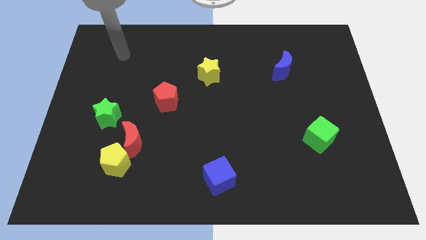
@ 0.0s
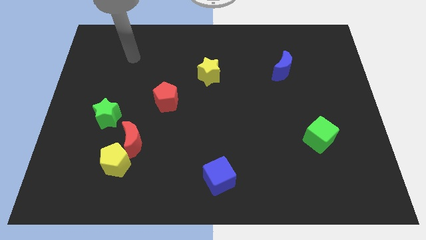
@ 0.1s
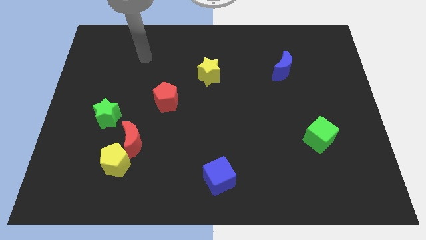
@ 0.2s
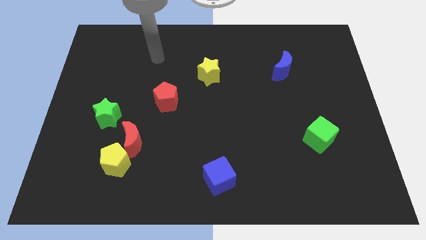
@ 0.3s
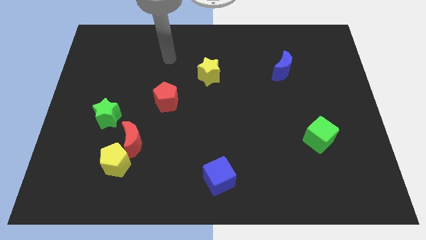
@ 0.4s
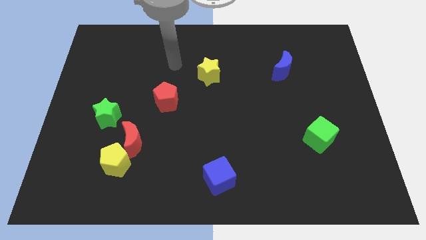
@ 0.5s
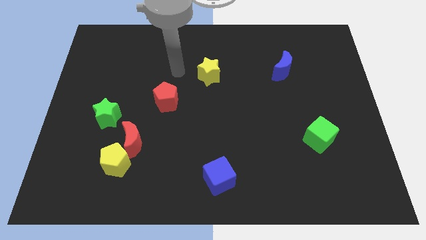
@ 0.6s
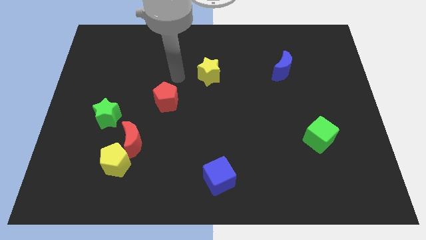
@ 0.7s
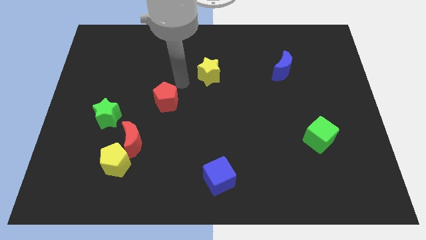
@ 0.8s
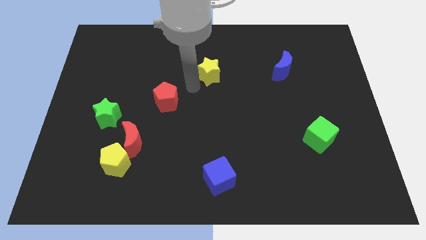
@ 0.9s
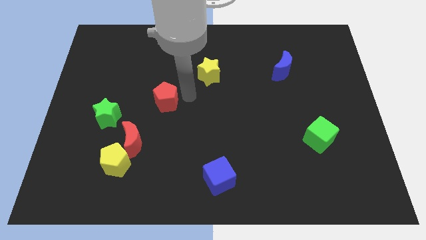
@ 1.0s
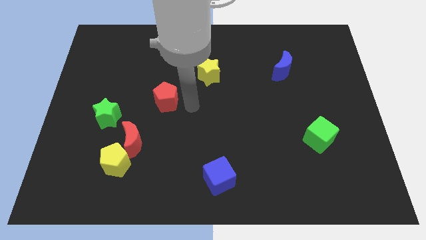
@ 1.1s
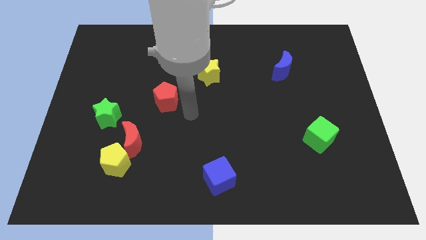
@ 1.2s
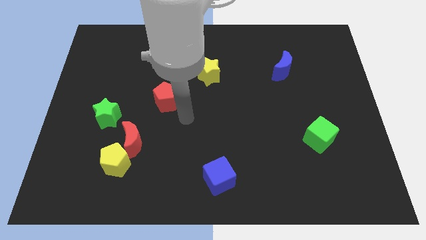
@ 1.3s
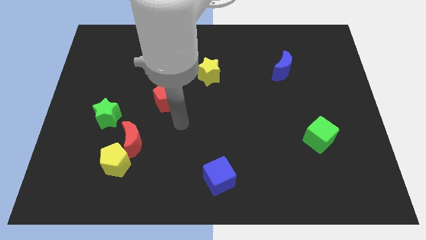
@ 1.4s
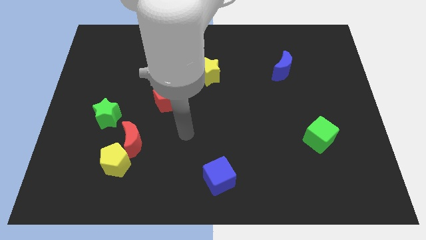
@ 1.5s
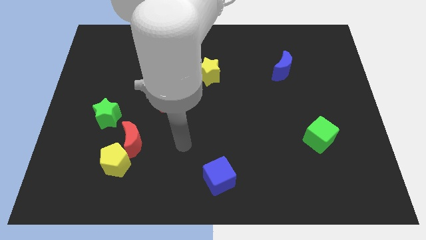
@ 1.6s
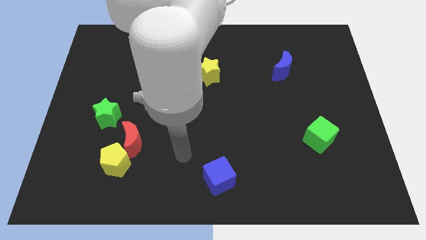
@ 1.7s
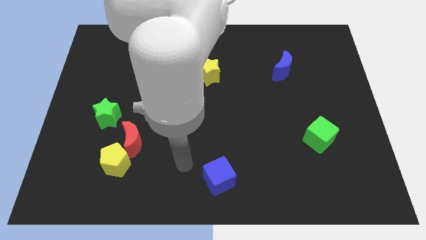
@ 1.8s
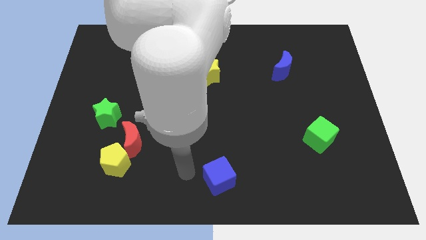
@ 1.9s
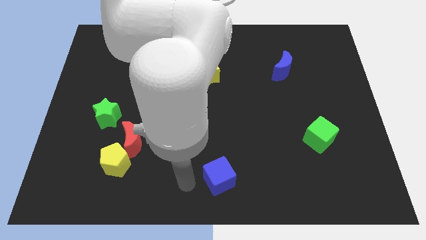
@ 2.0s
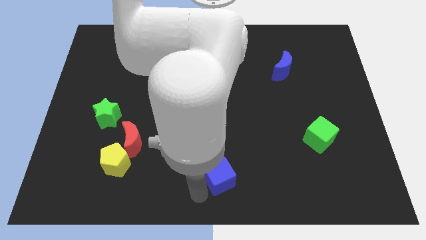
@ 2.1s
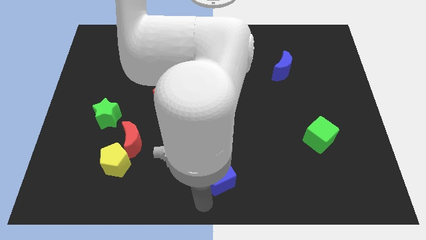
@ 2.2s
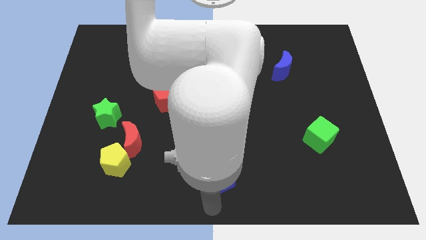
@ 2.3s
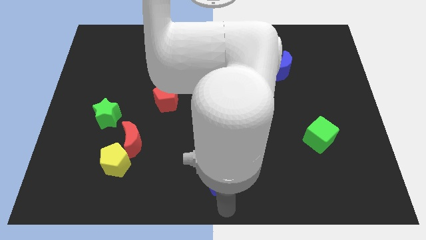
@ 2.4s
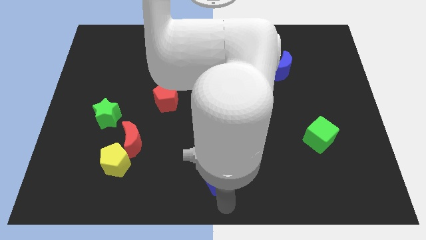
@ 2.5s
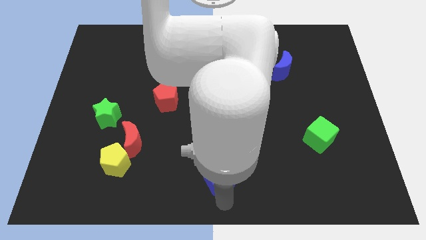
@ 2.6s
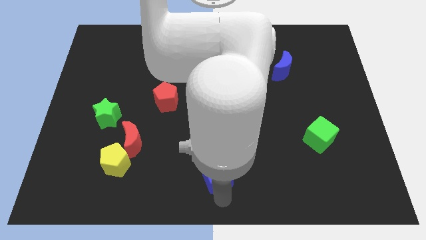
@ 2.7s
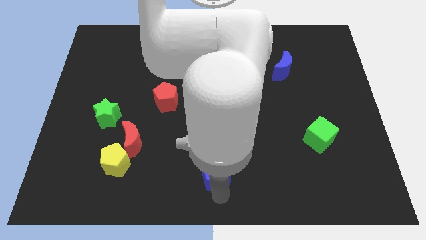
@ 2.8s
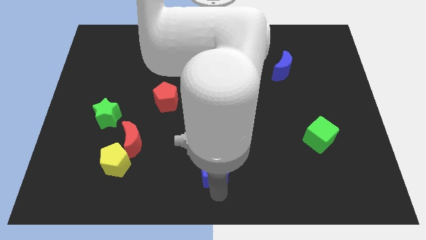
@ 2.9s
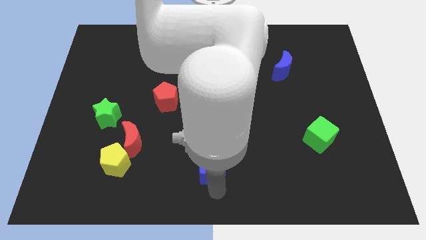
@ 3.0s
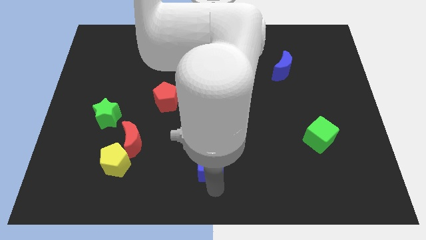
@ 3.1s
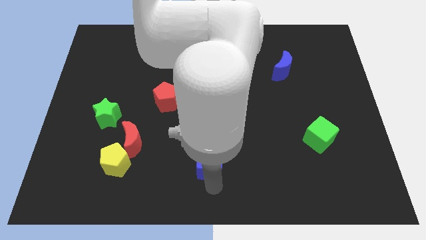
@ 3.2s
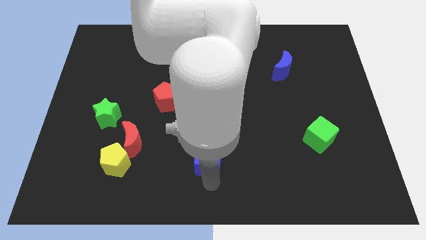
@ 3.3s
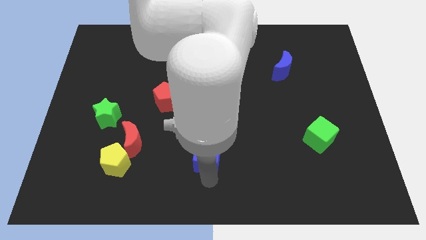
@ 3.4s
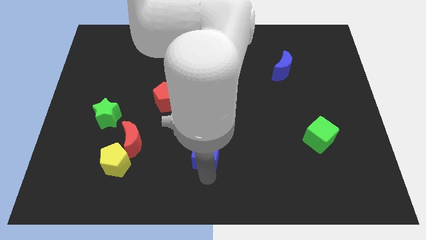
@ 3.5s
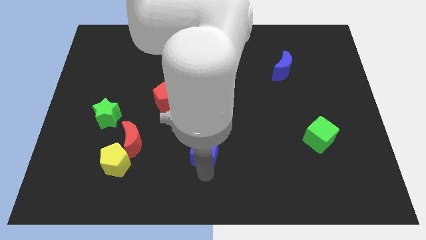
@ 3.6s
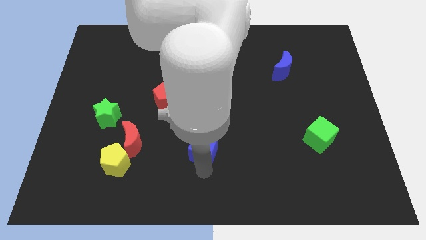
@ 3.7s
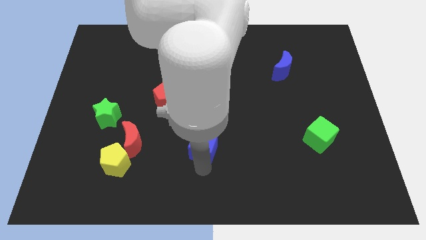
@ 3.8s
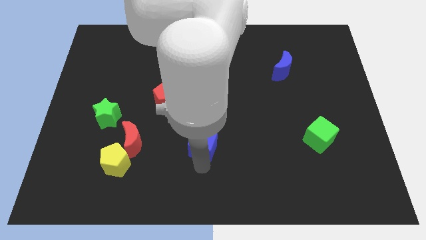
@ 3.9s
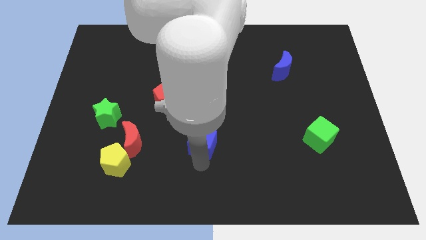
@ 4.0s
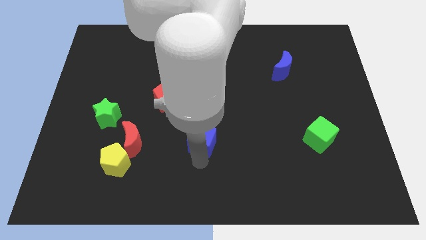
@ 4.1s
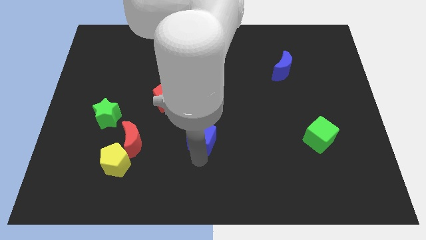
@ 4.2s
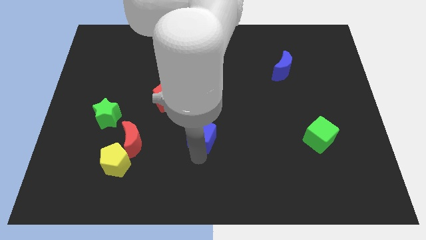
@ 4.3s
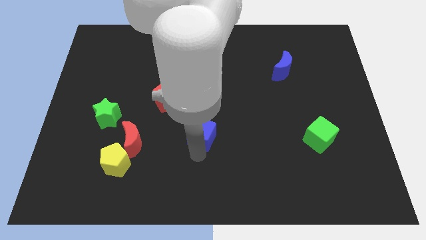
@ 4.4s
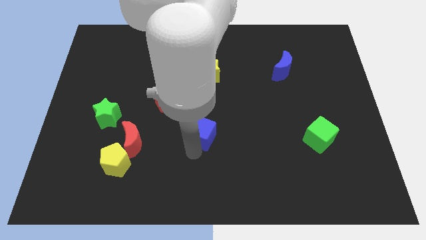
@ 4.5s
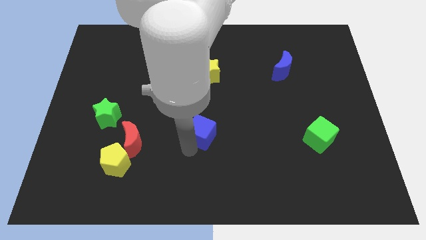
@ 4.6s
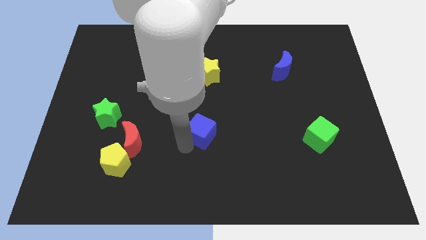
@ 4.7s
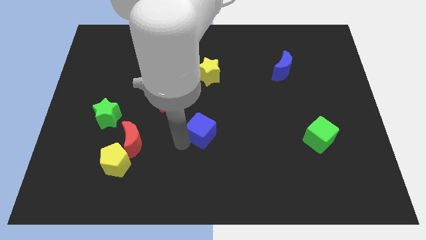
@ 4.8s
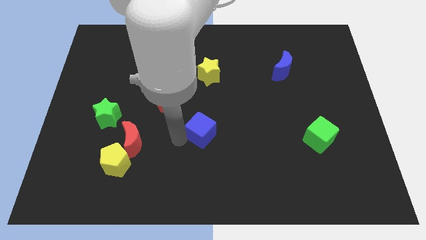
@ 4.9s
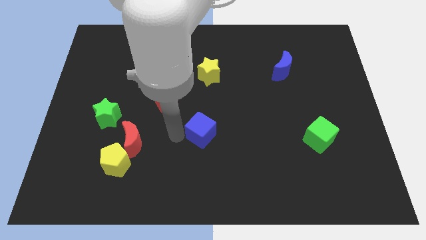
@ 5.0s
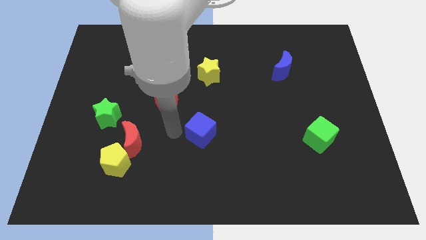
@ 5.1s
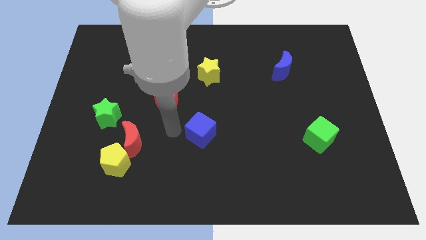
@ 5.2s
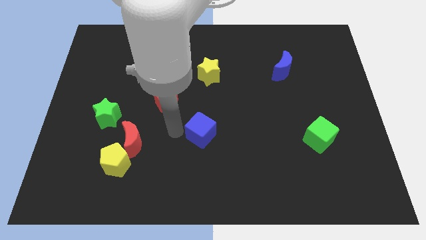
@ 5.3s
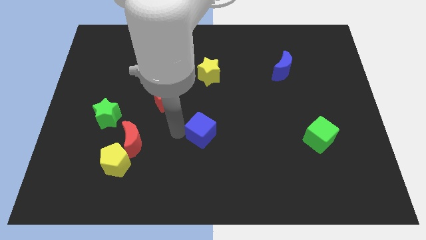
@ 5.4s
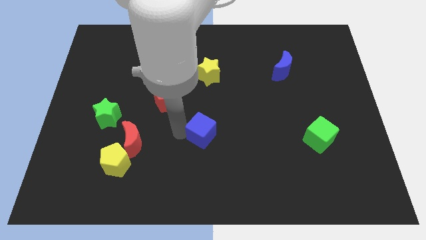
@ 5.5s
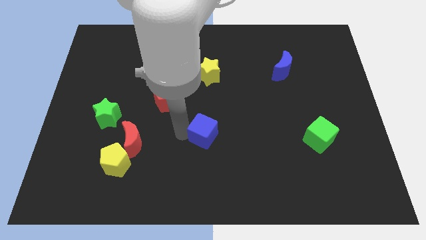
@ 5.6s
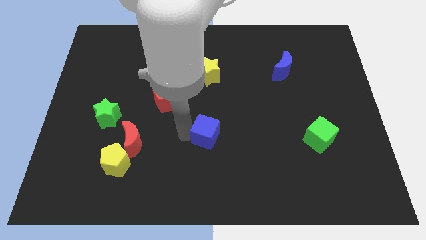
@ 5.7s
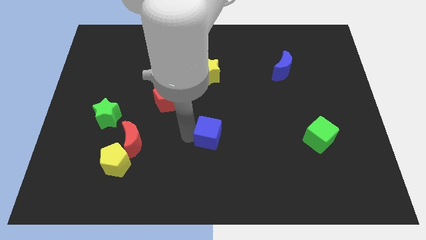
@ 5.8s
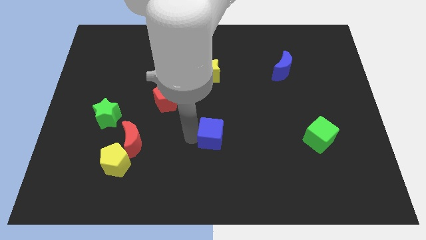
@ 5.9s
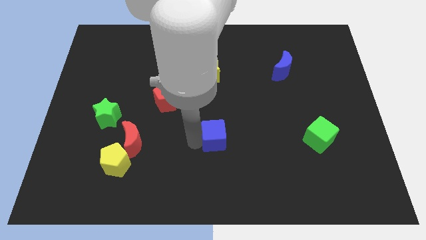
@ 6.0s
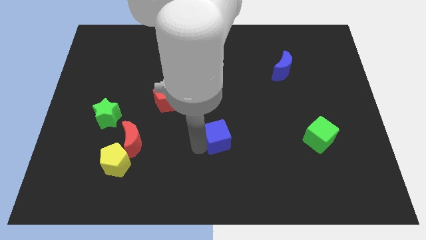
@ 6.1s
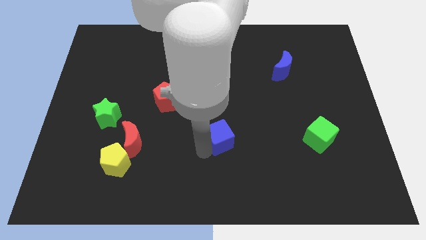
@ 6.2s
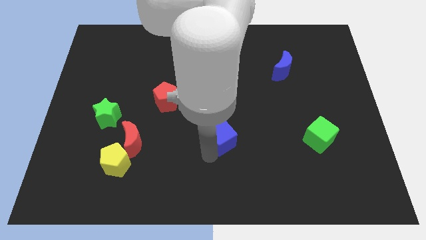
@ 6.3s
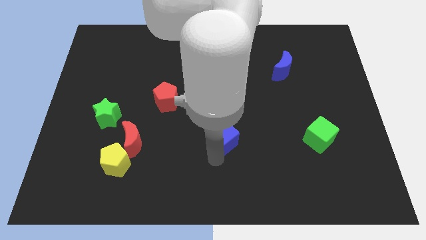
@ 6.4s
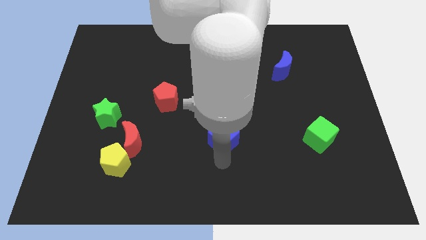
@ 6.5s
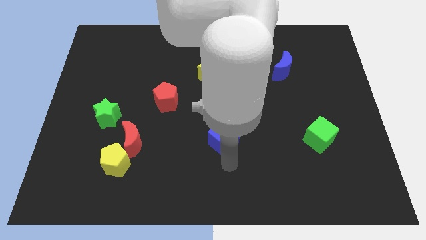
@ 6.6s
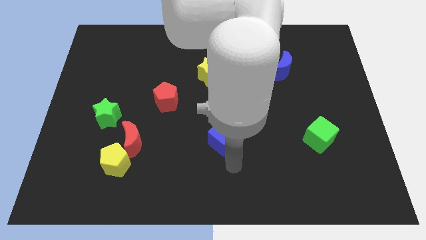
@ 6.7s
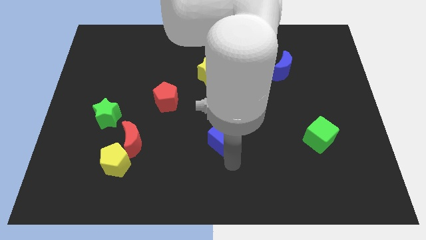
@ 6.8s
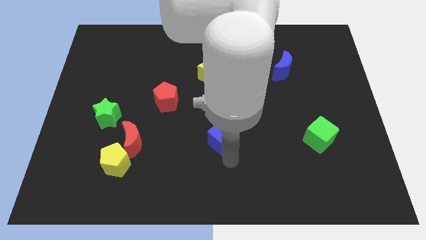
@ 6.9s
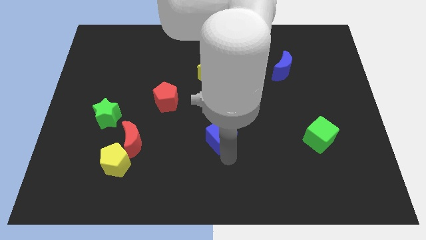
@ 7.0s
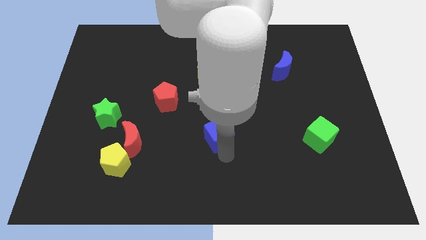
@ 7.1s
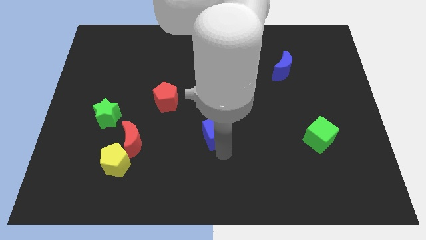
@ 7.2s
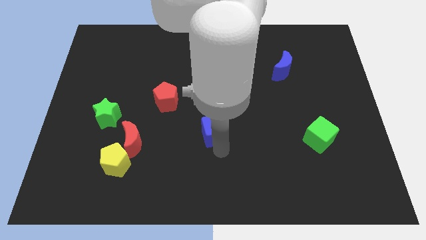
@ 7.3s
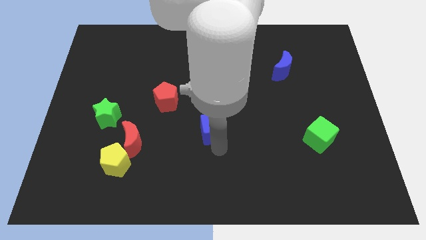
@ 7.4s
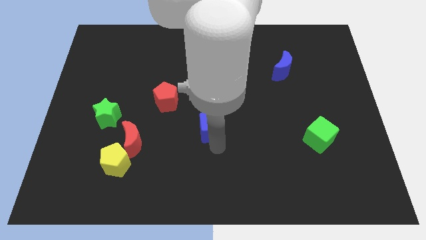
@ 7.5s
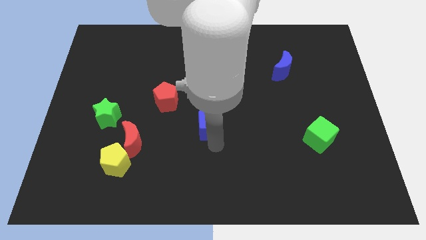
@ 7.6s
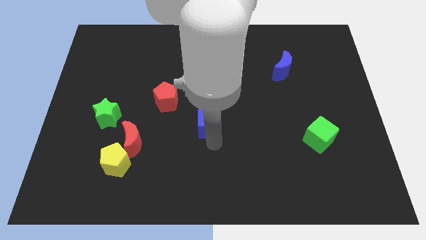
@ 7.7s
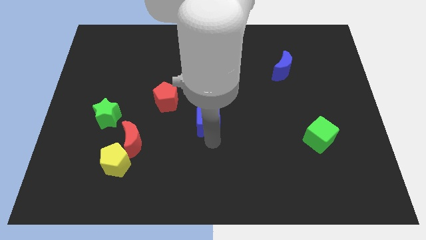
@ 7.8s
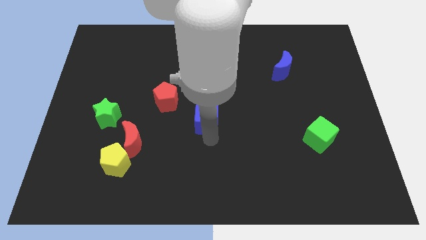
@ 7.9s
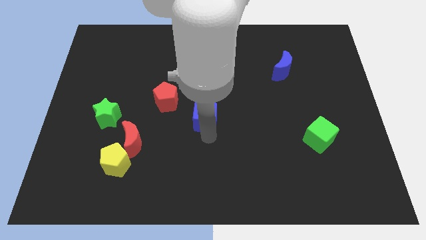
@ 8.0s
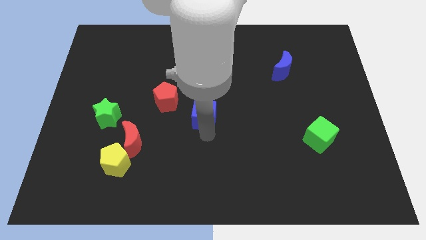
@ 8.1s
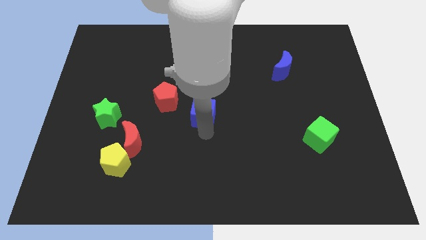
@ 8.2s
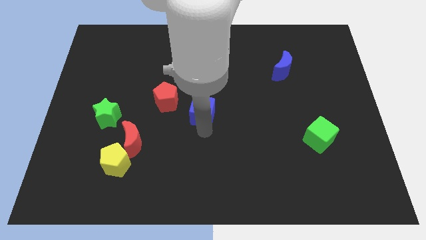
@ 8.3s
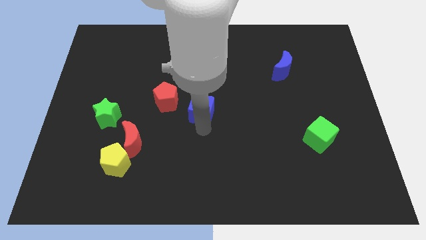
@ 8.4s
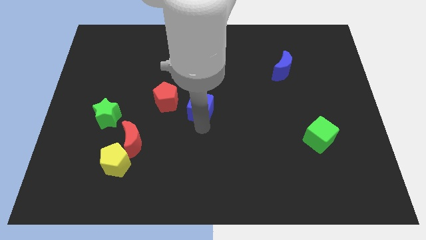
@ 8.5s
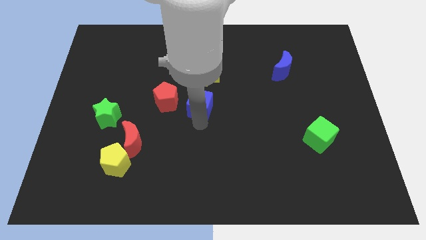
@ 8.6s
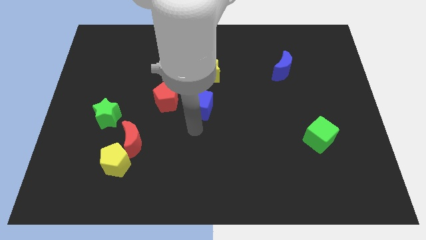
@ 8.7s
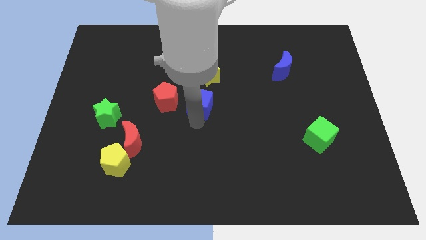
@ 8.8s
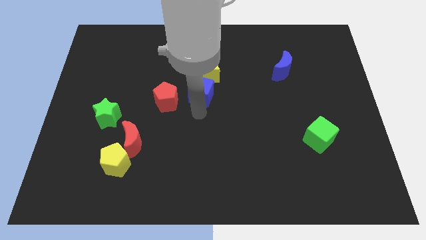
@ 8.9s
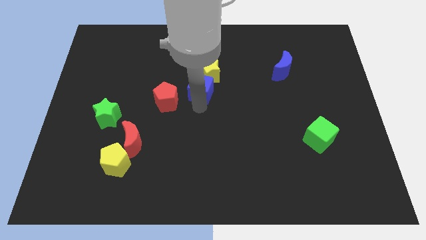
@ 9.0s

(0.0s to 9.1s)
slide the blue cube next to the yellow star
